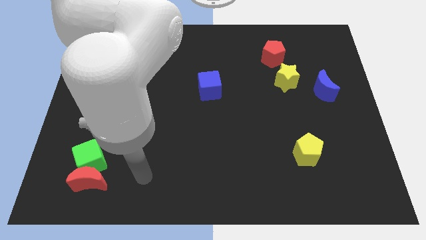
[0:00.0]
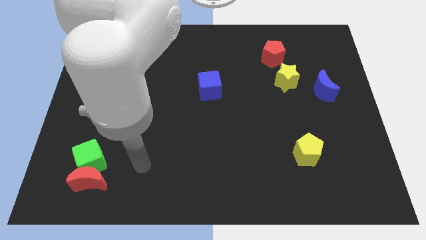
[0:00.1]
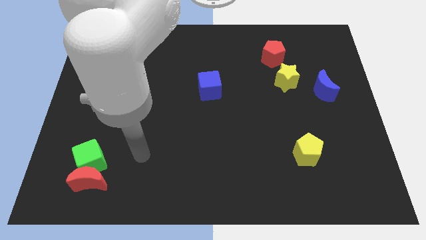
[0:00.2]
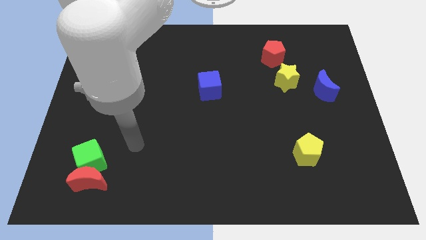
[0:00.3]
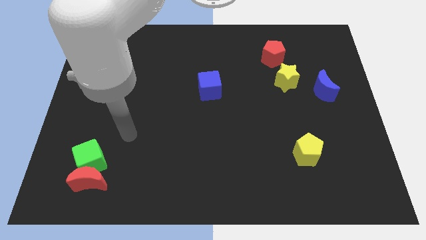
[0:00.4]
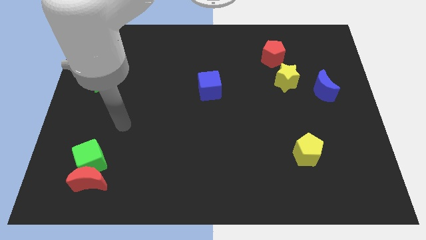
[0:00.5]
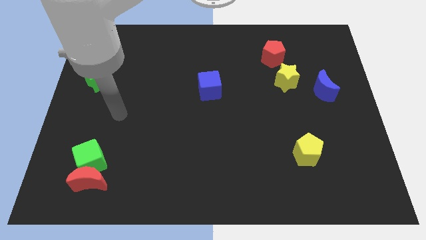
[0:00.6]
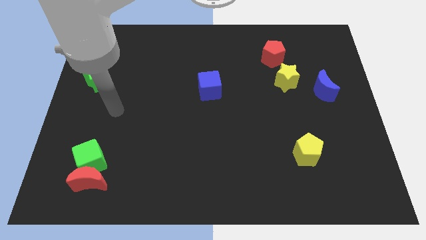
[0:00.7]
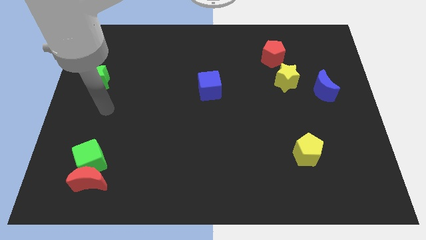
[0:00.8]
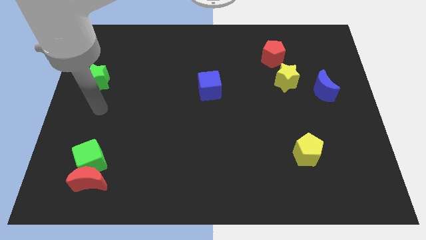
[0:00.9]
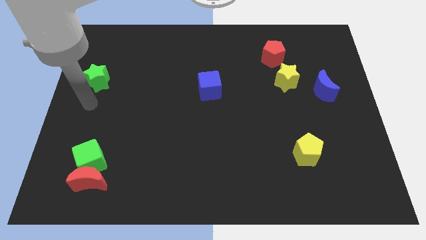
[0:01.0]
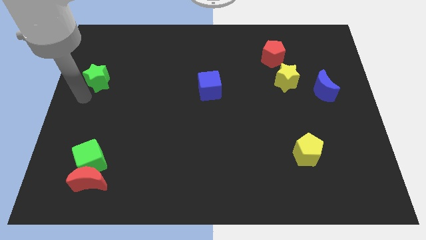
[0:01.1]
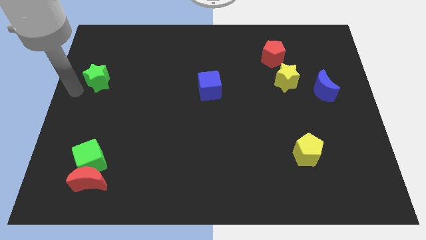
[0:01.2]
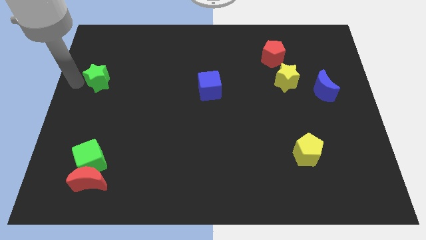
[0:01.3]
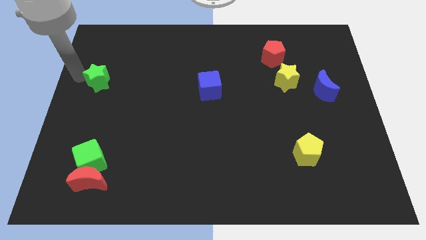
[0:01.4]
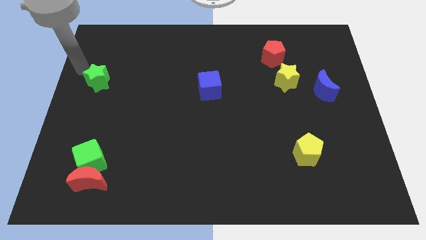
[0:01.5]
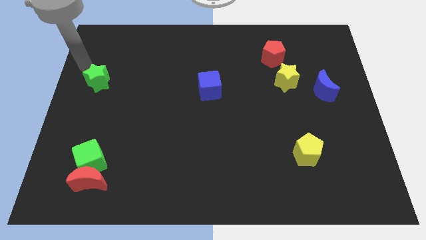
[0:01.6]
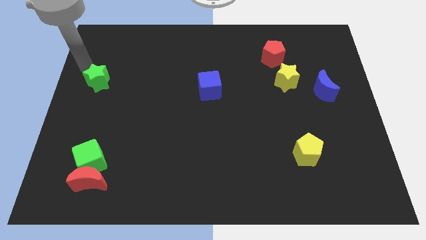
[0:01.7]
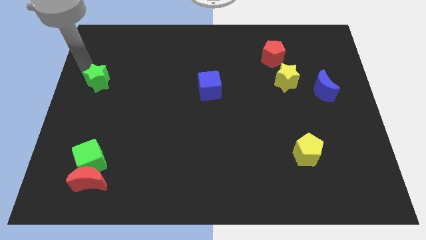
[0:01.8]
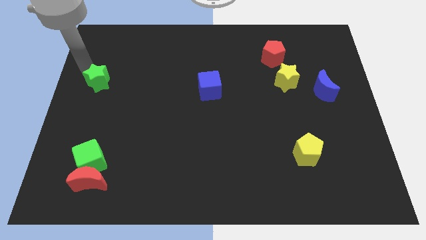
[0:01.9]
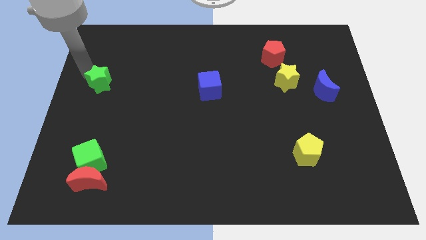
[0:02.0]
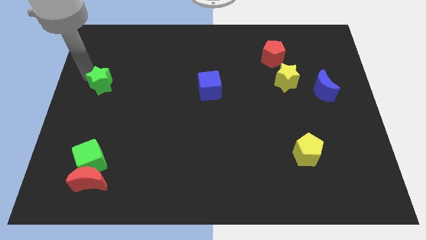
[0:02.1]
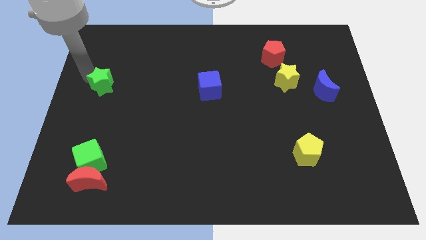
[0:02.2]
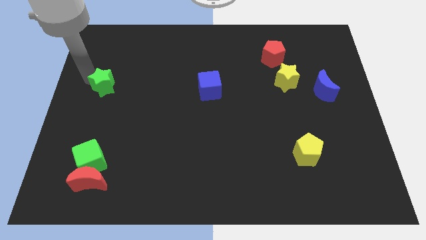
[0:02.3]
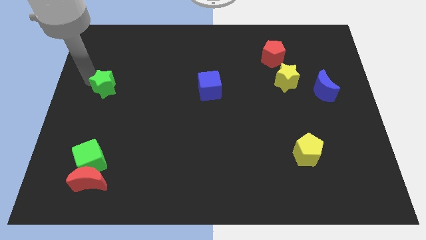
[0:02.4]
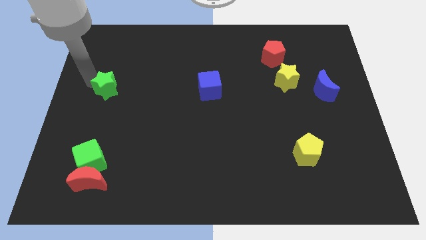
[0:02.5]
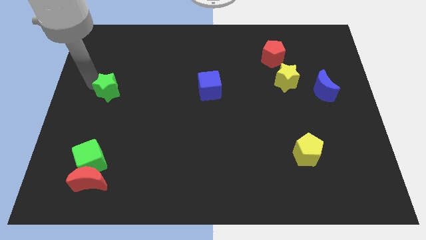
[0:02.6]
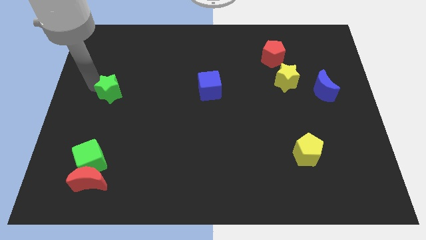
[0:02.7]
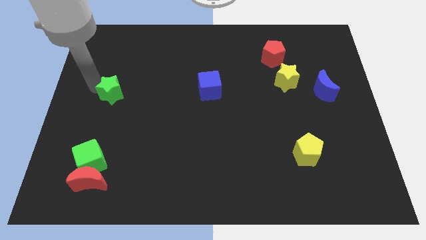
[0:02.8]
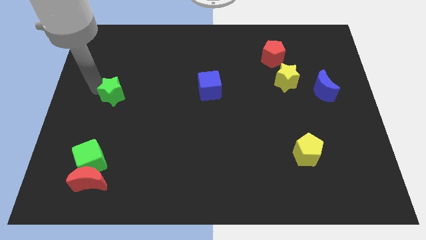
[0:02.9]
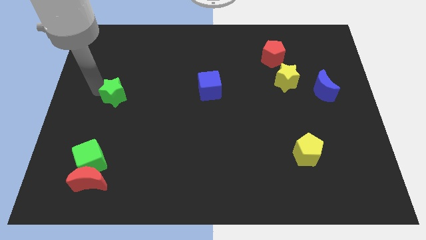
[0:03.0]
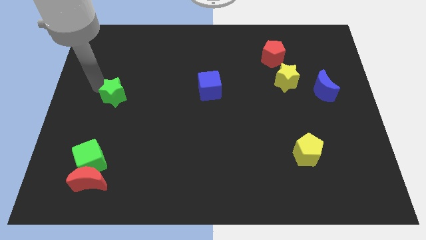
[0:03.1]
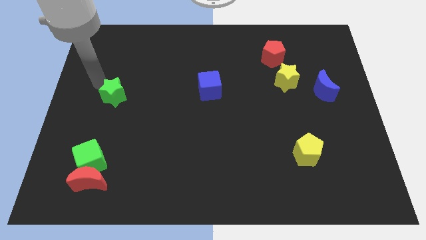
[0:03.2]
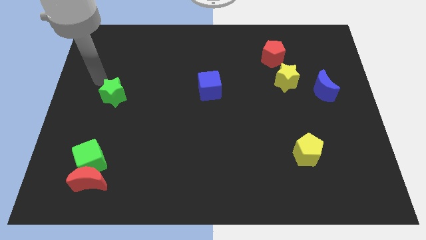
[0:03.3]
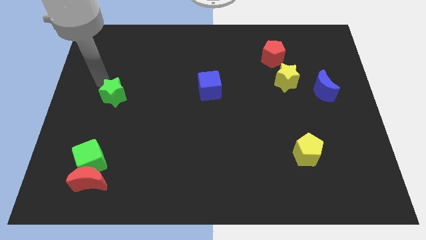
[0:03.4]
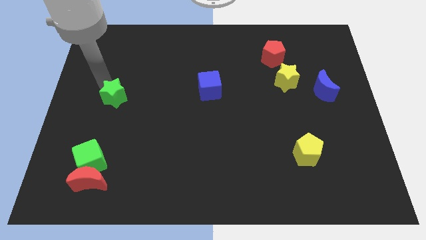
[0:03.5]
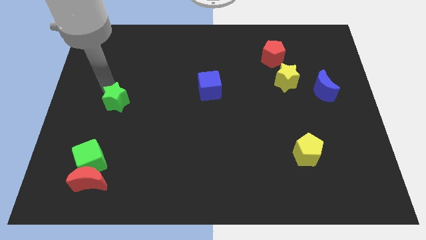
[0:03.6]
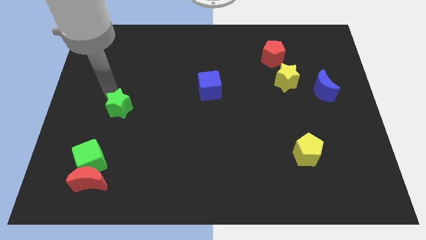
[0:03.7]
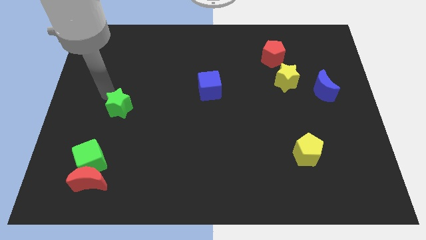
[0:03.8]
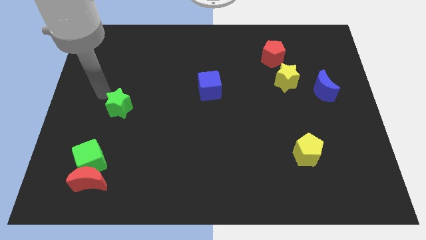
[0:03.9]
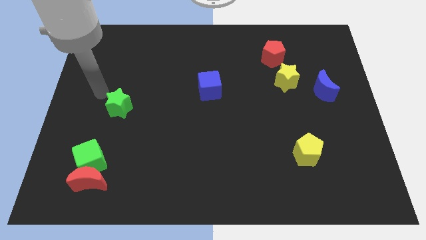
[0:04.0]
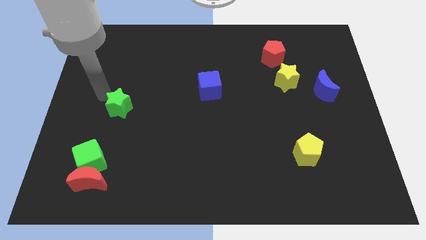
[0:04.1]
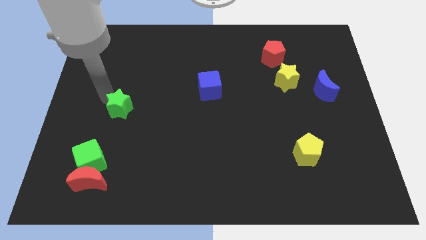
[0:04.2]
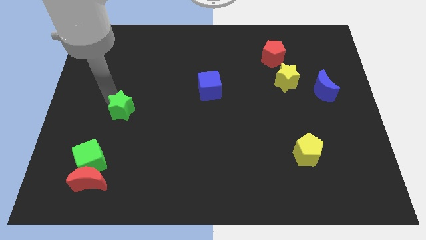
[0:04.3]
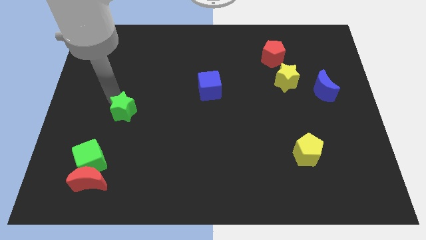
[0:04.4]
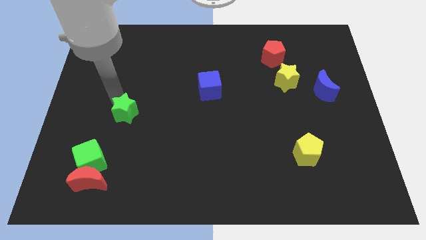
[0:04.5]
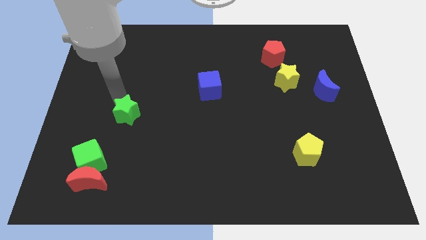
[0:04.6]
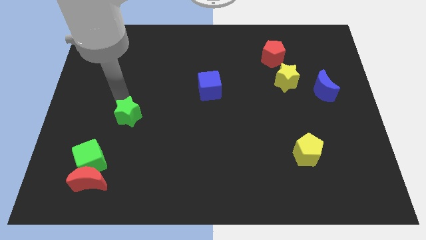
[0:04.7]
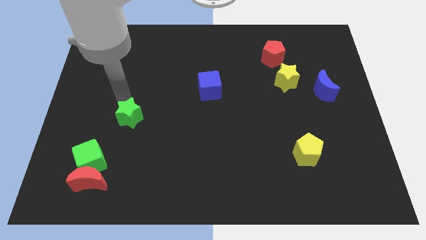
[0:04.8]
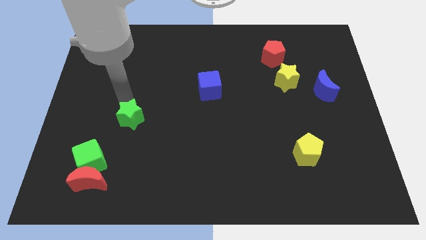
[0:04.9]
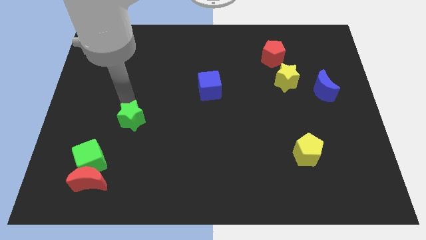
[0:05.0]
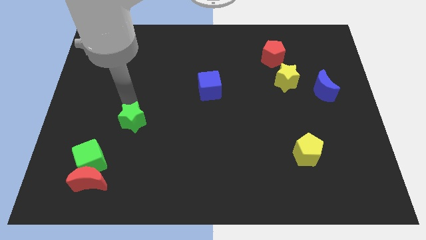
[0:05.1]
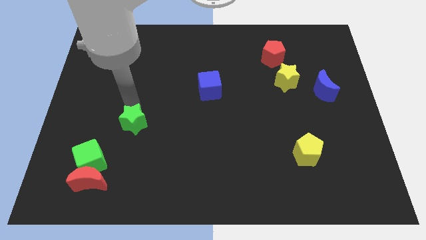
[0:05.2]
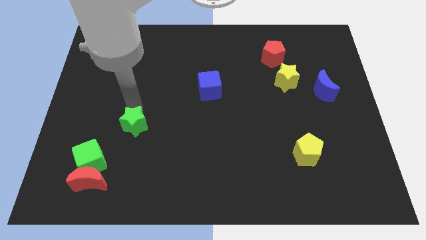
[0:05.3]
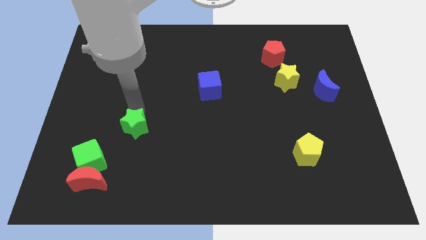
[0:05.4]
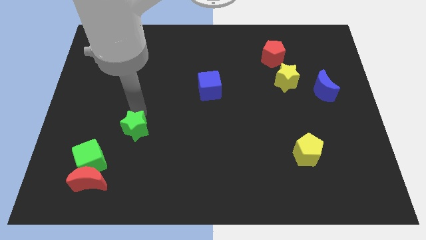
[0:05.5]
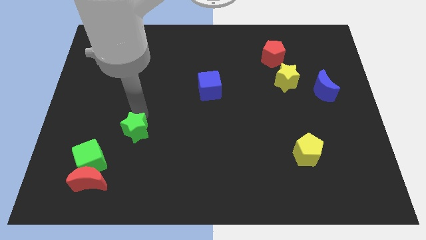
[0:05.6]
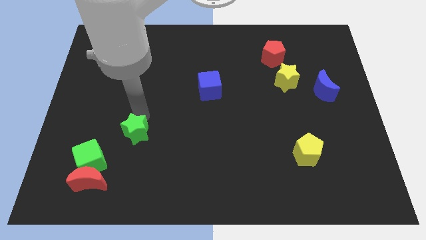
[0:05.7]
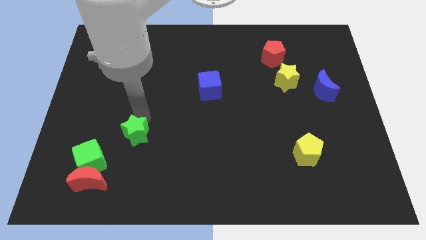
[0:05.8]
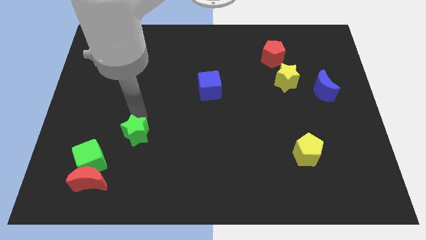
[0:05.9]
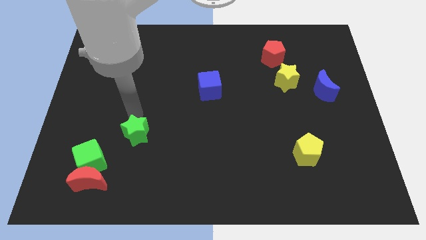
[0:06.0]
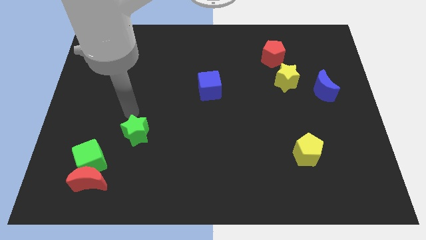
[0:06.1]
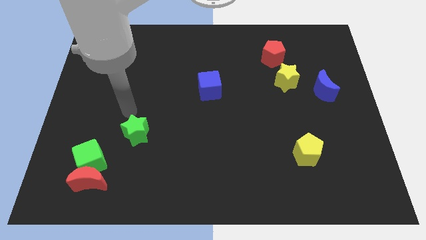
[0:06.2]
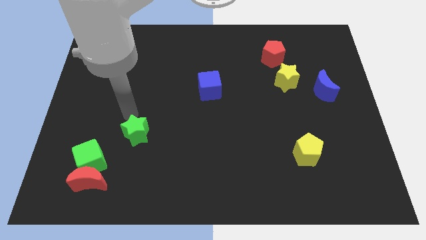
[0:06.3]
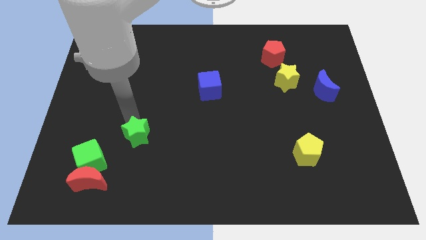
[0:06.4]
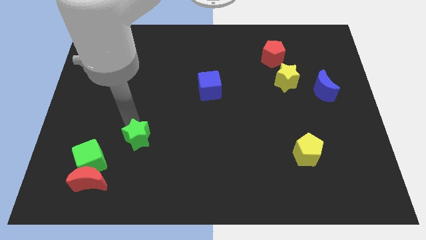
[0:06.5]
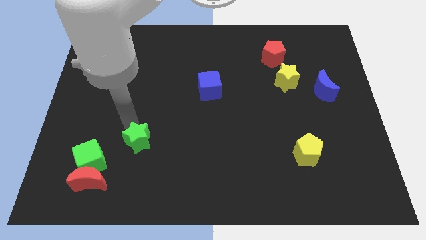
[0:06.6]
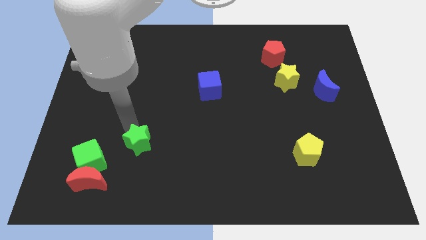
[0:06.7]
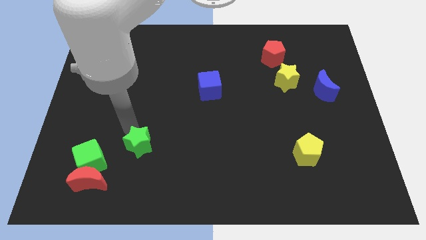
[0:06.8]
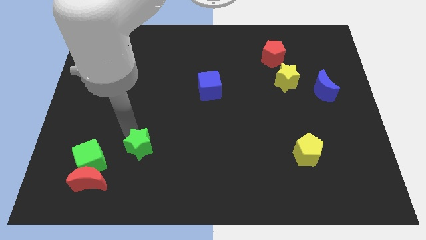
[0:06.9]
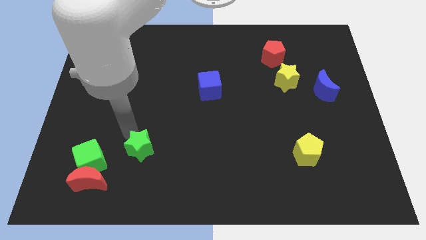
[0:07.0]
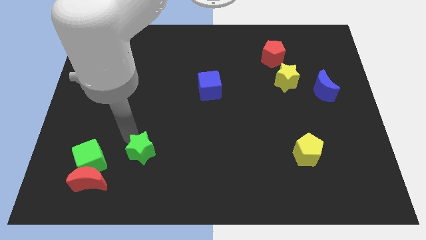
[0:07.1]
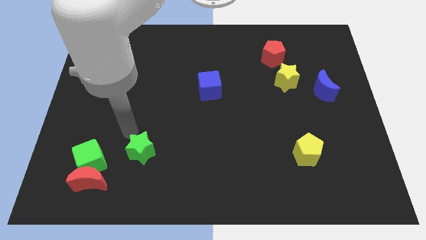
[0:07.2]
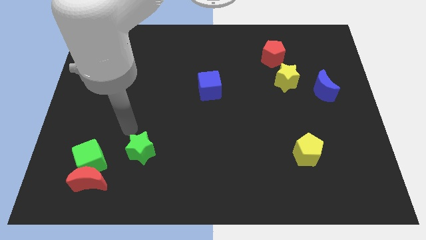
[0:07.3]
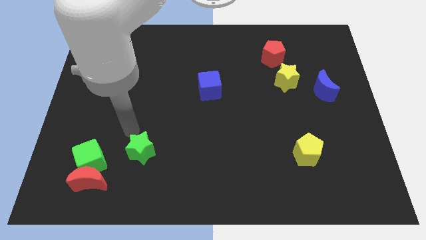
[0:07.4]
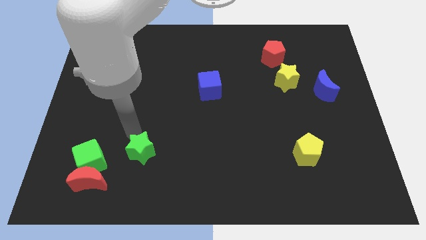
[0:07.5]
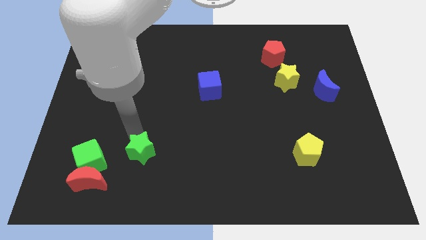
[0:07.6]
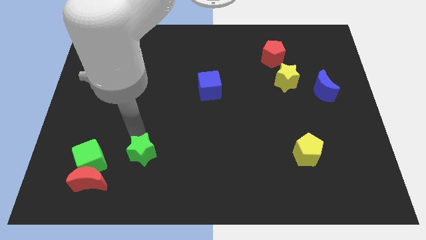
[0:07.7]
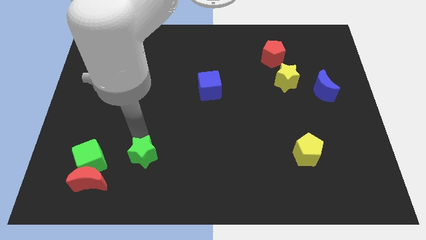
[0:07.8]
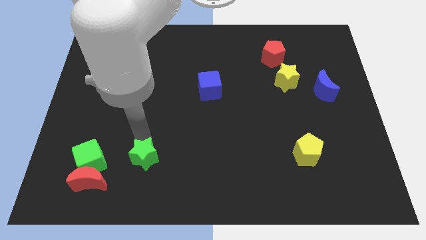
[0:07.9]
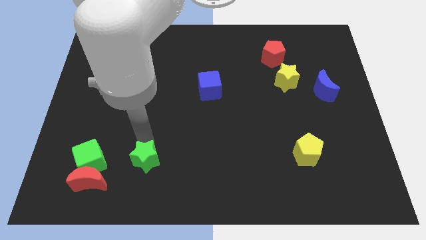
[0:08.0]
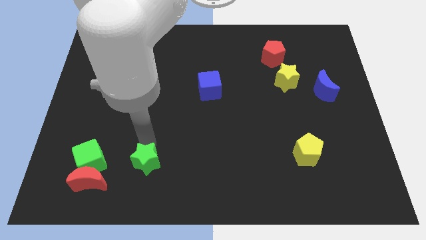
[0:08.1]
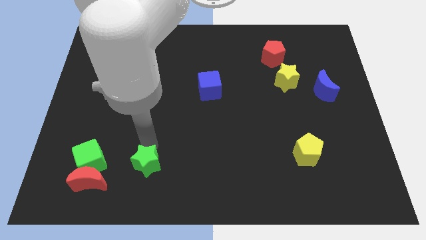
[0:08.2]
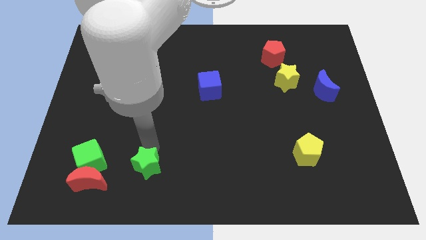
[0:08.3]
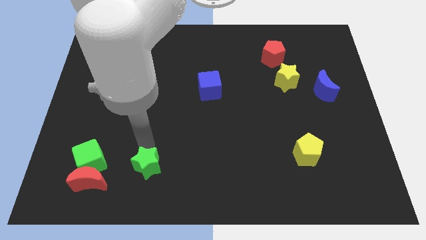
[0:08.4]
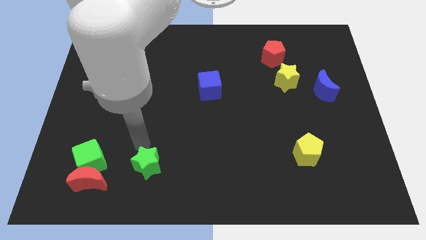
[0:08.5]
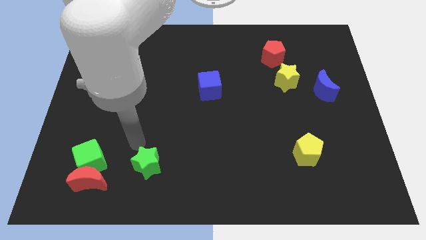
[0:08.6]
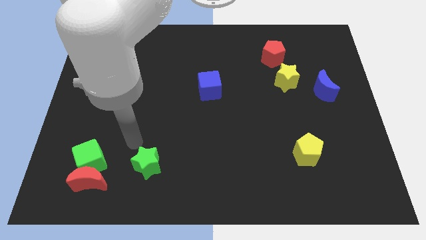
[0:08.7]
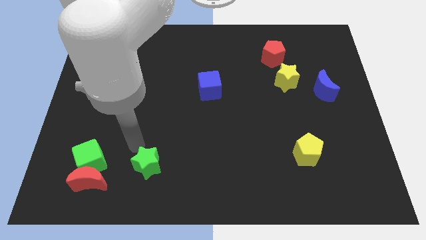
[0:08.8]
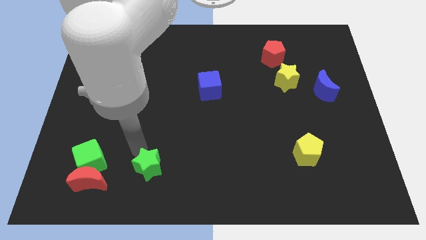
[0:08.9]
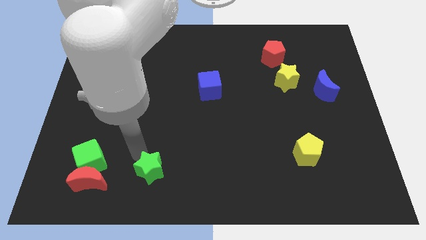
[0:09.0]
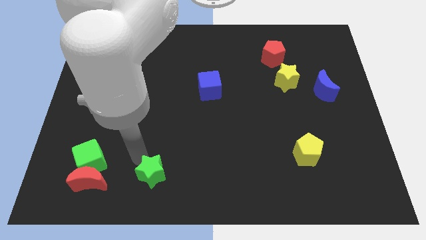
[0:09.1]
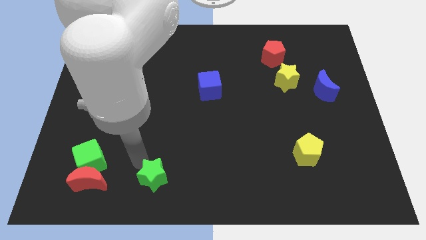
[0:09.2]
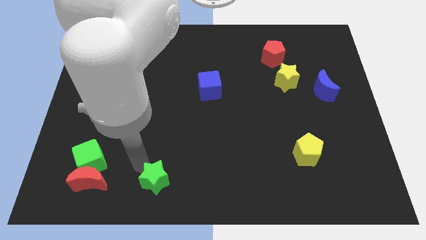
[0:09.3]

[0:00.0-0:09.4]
move the green star to the bottom side
